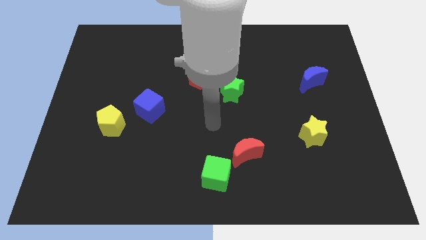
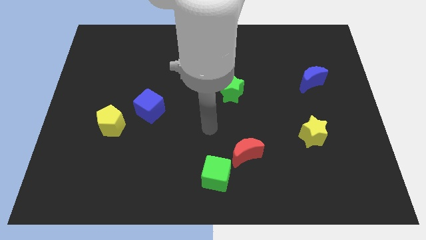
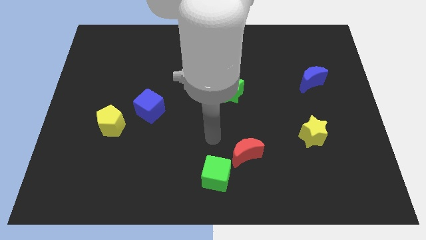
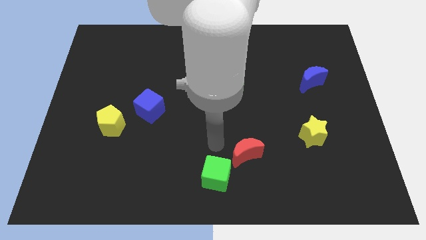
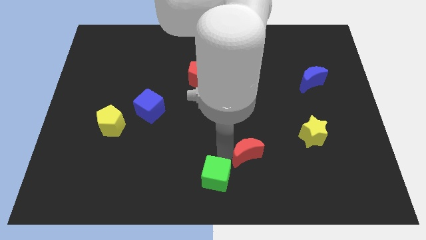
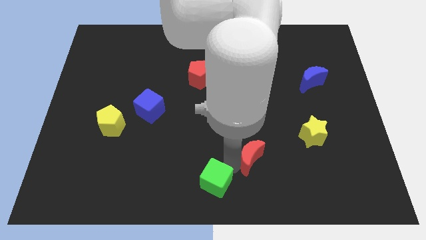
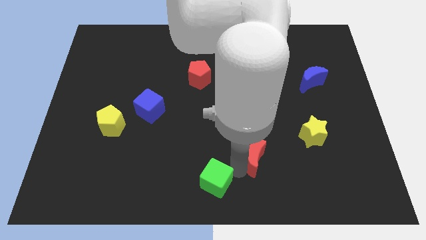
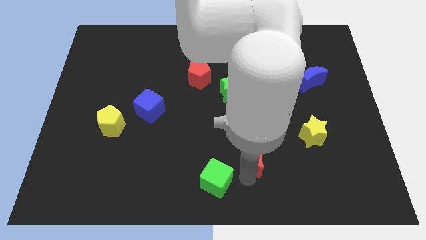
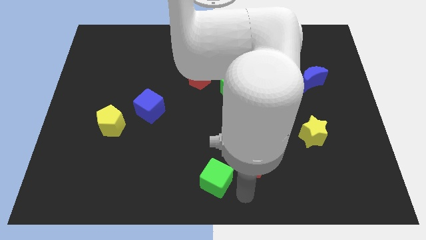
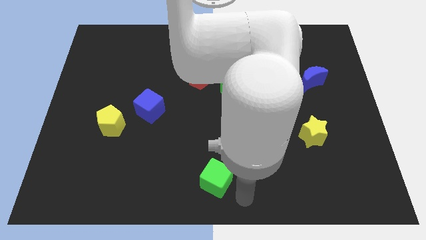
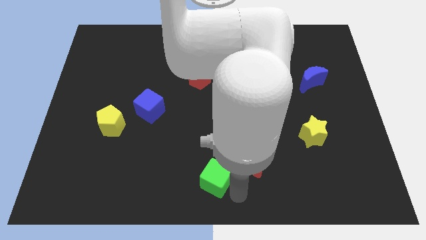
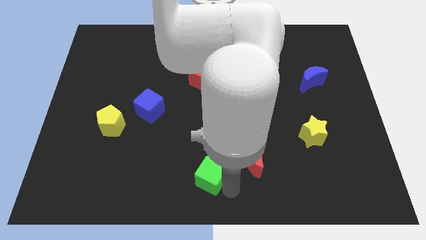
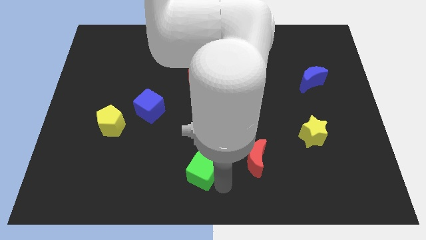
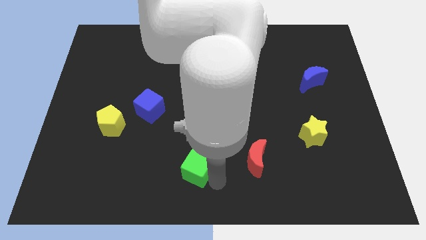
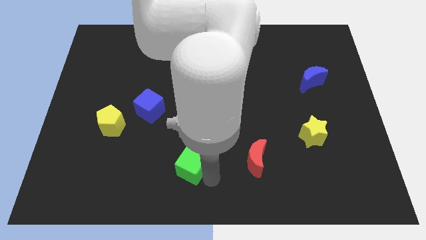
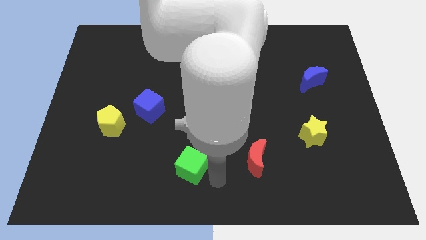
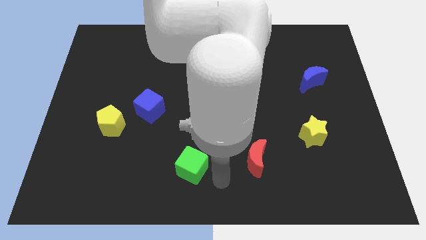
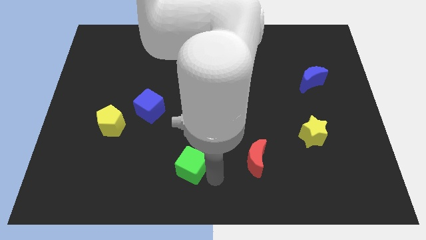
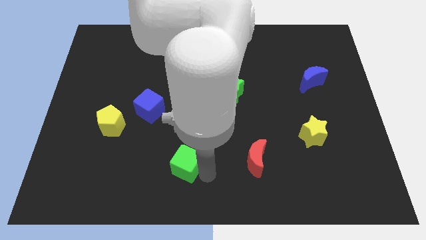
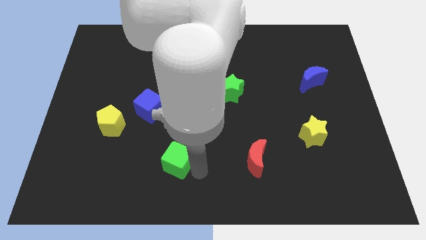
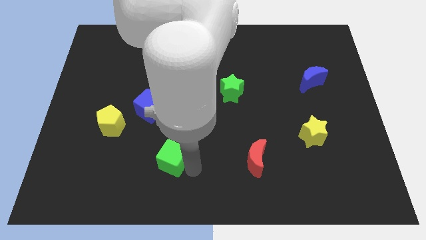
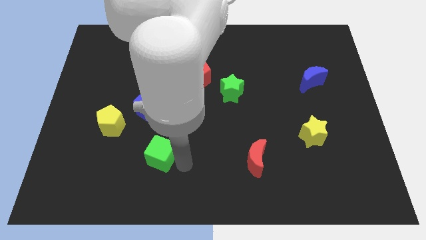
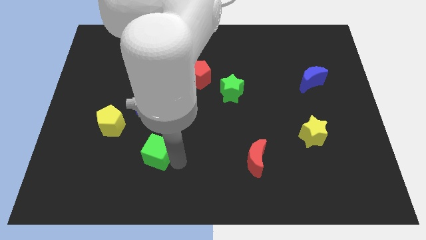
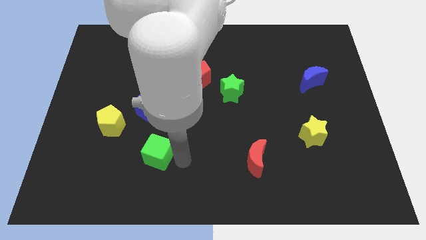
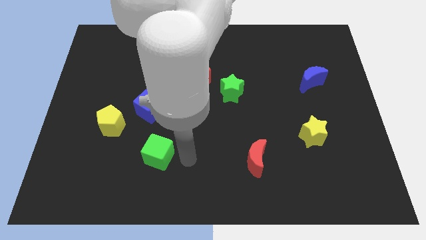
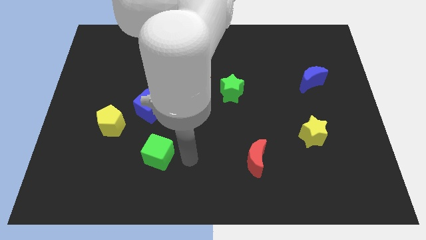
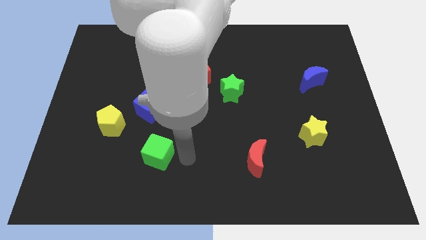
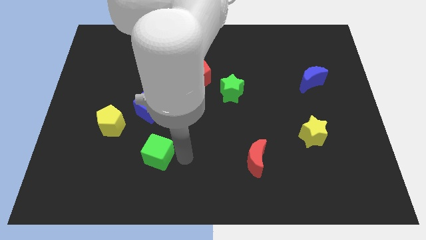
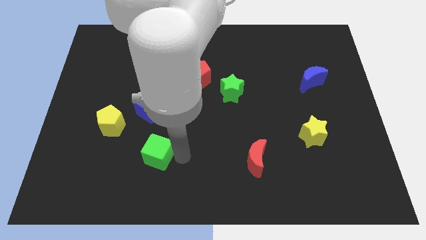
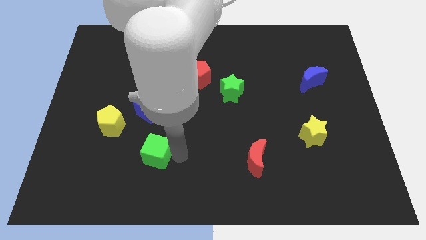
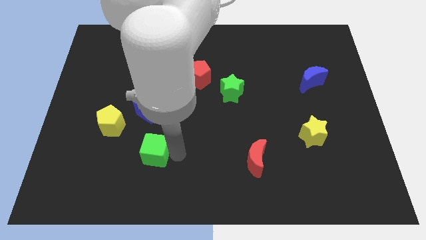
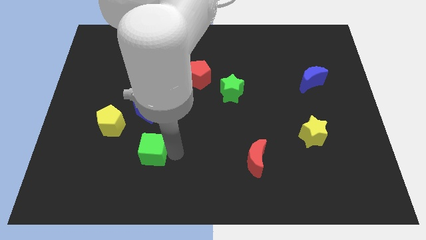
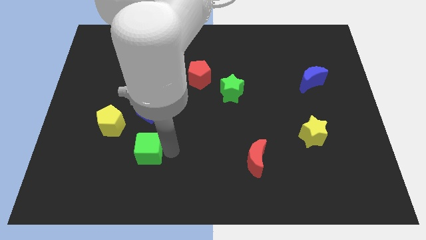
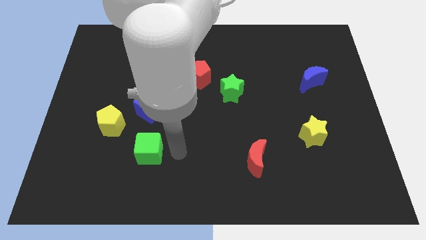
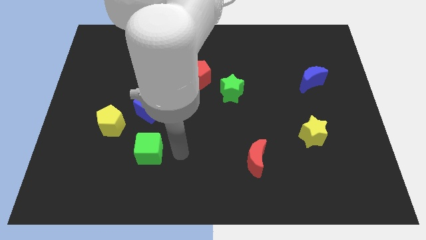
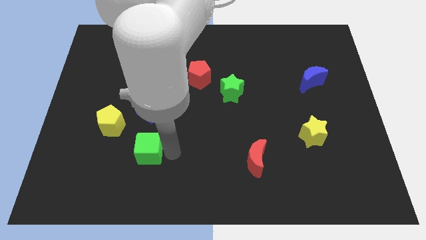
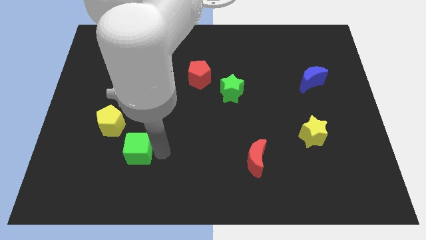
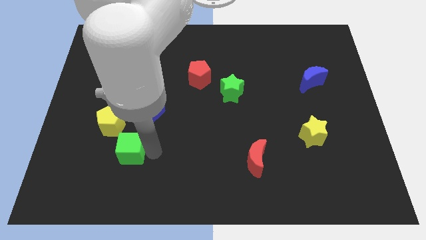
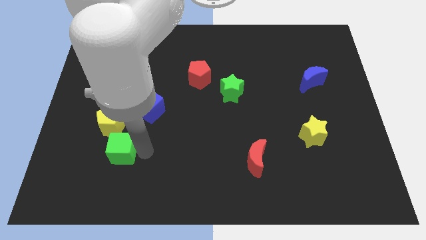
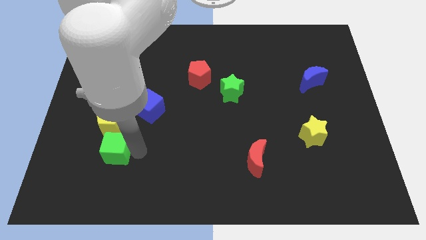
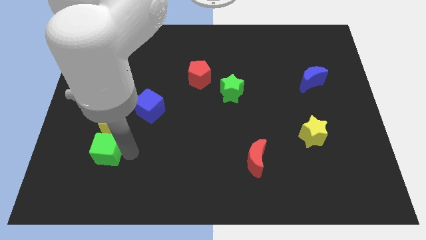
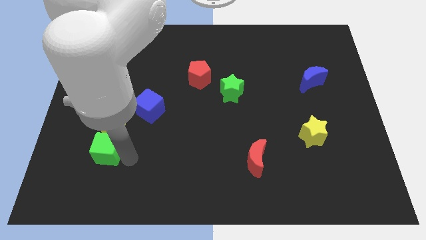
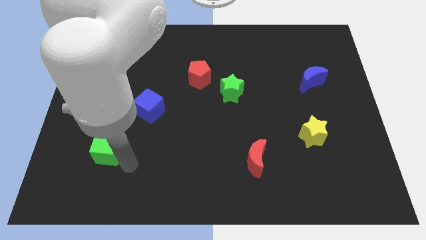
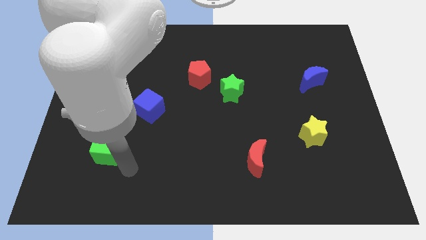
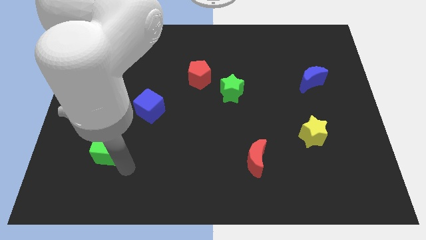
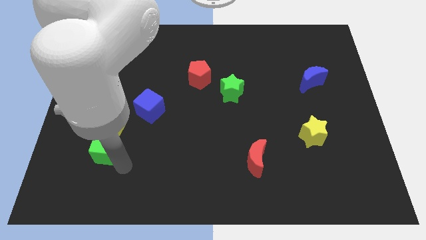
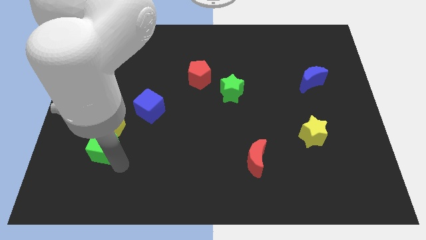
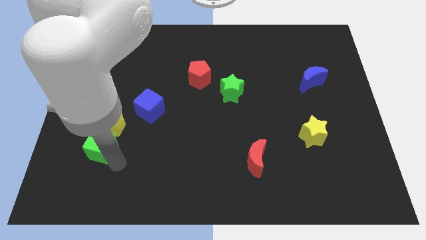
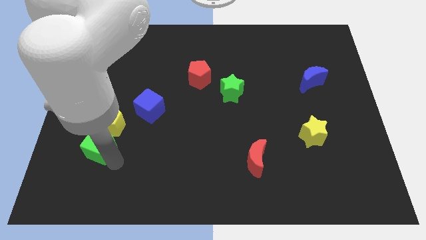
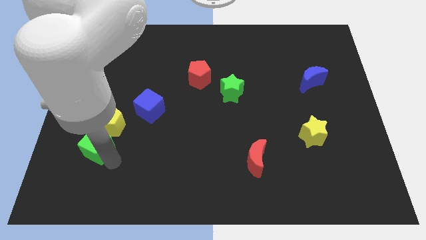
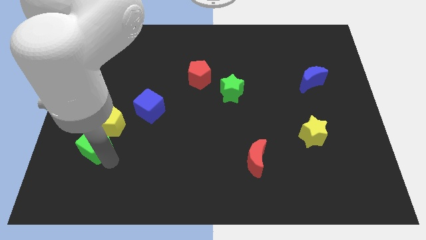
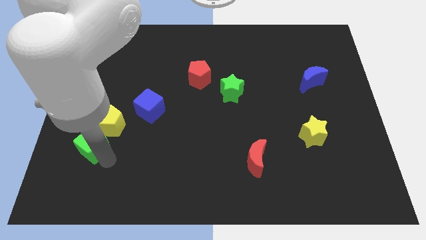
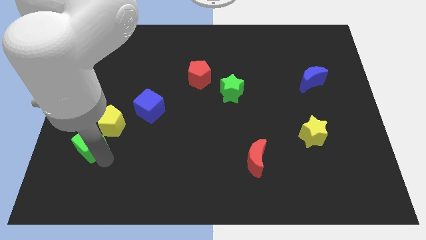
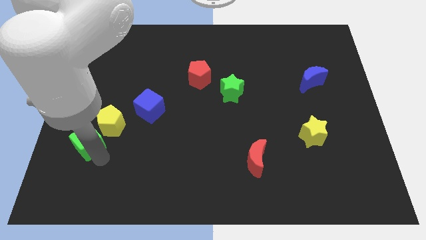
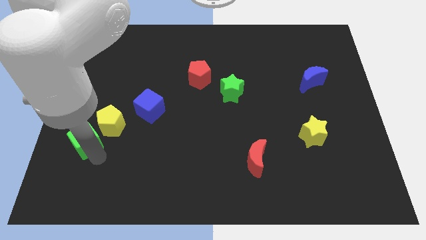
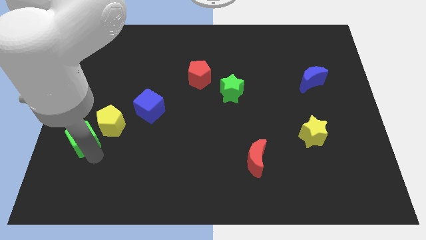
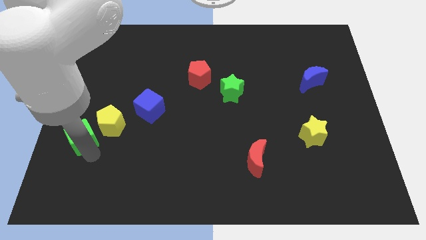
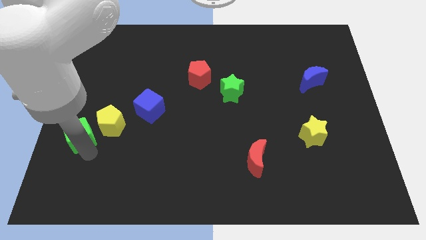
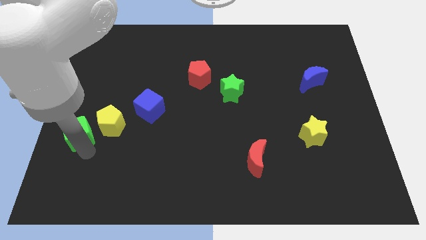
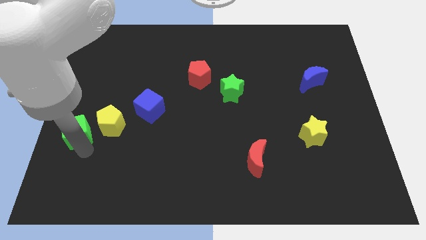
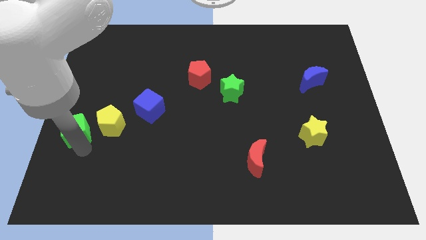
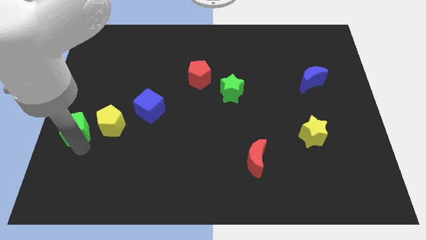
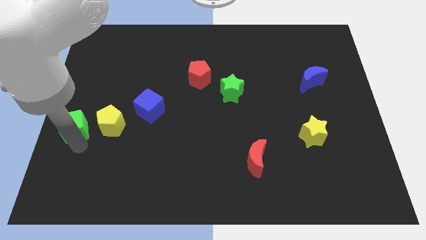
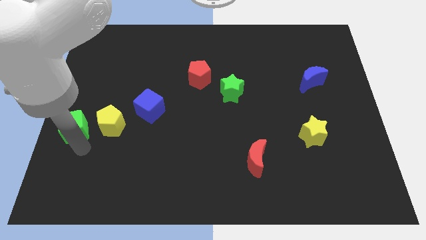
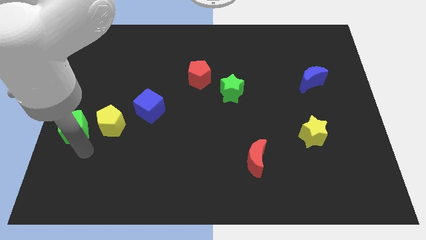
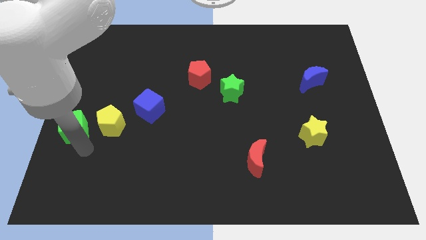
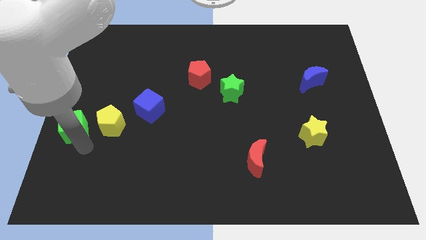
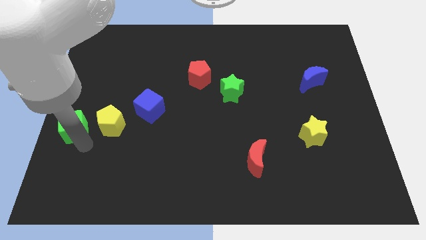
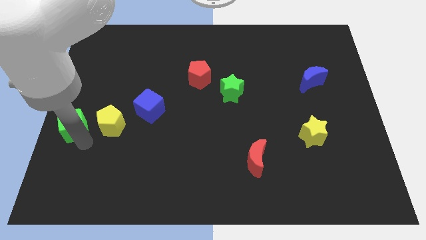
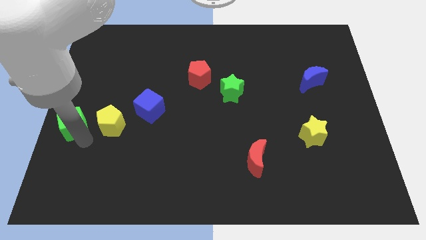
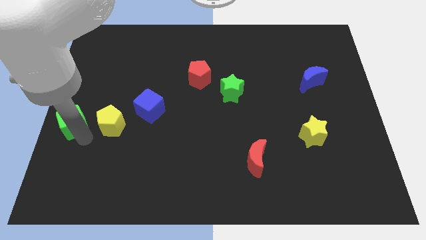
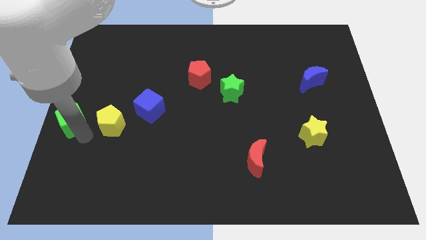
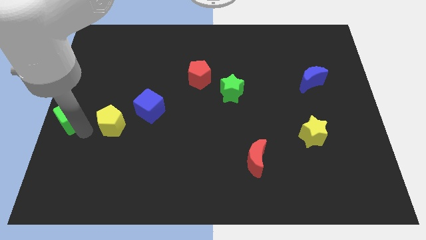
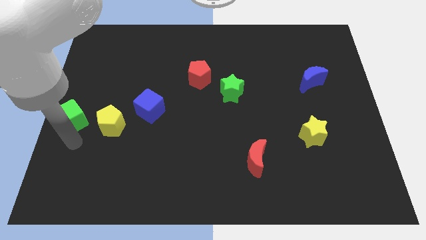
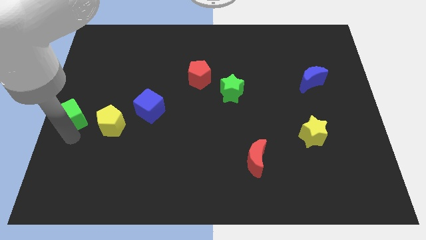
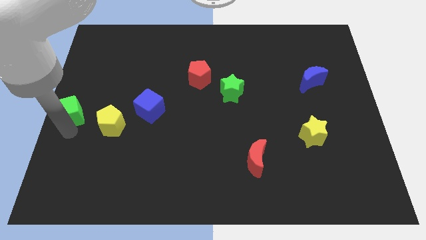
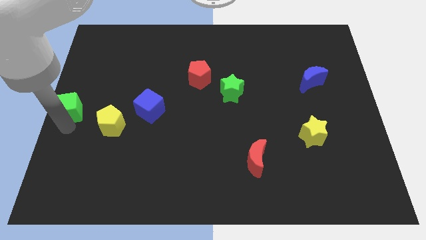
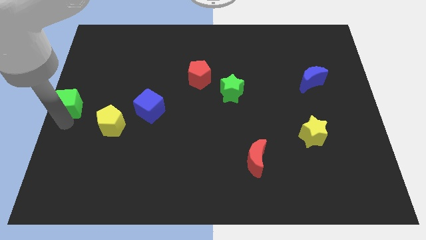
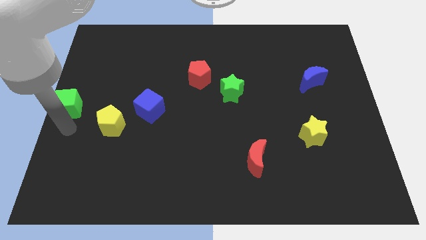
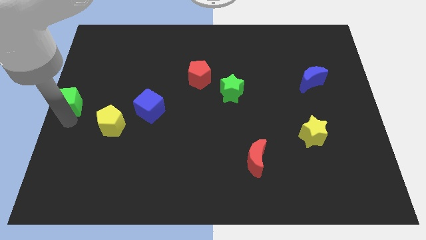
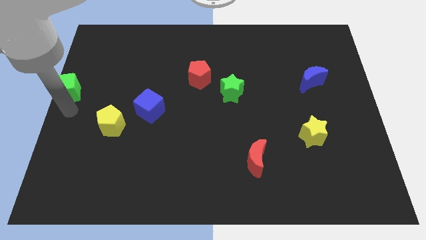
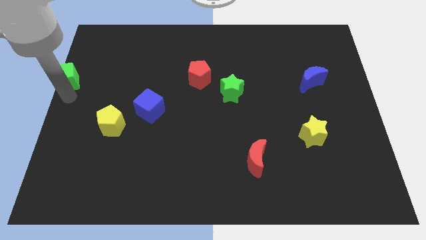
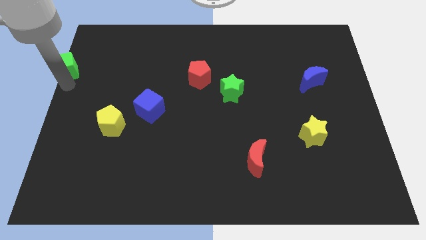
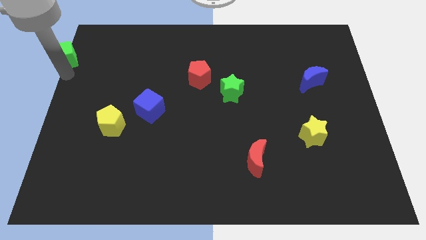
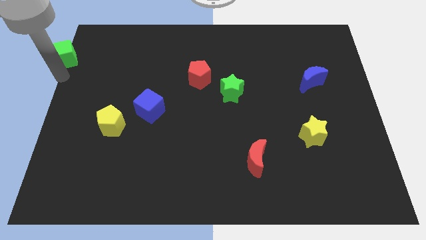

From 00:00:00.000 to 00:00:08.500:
push the green cube to the top left corner
